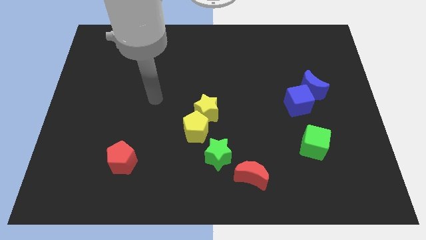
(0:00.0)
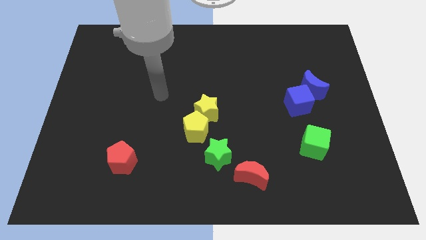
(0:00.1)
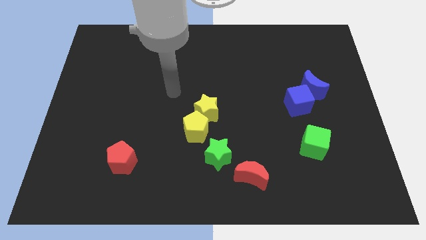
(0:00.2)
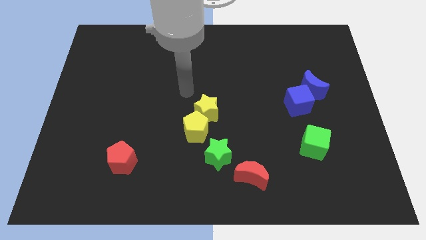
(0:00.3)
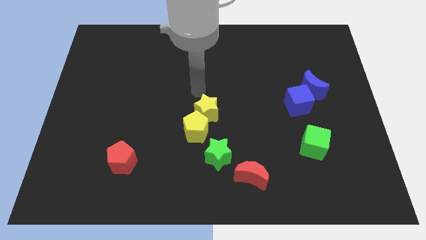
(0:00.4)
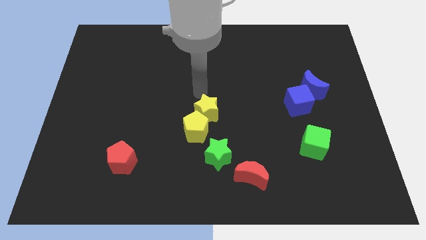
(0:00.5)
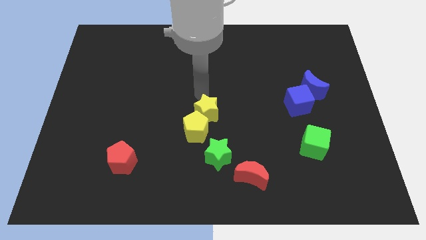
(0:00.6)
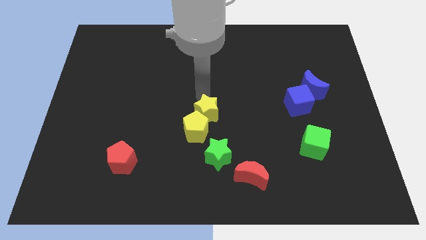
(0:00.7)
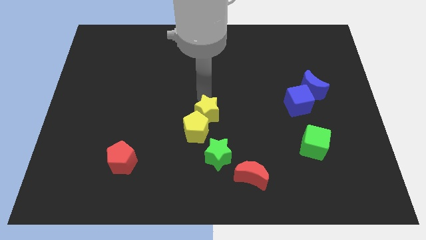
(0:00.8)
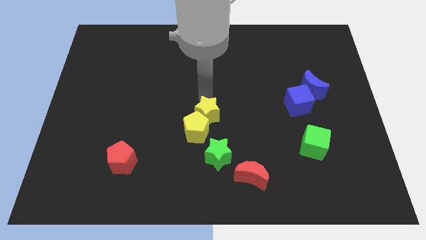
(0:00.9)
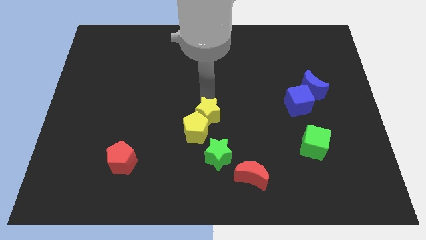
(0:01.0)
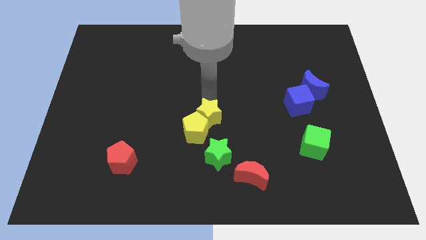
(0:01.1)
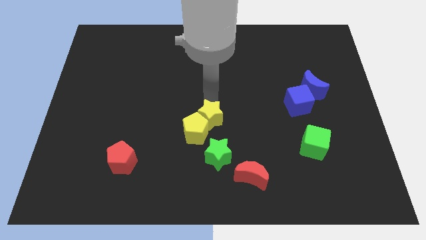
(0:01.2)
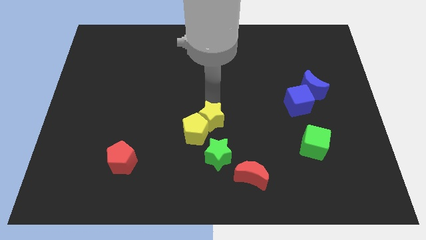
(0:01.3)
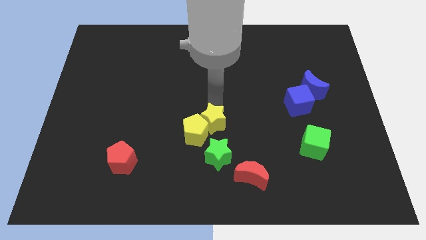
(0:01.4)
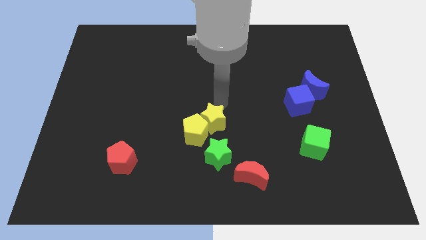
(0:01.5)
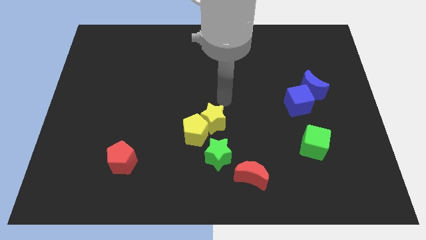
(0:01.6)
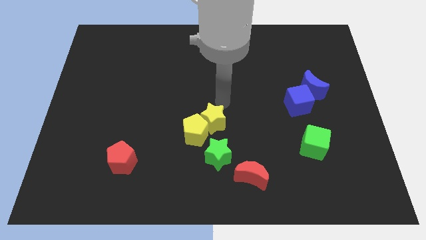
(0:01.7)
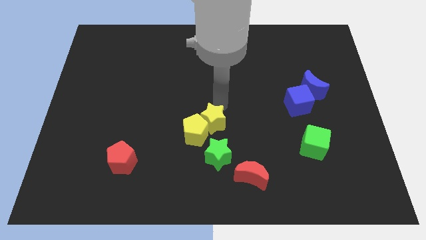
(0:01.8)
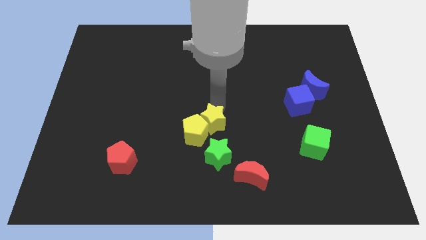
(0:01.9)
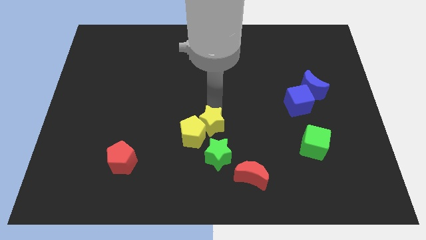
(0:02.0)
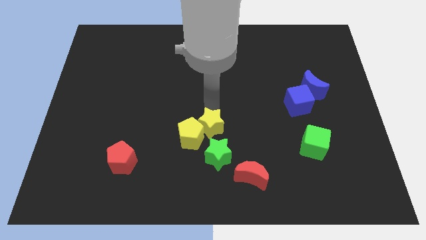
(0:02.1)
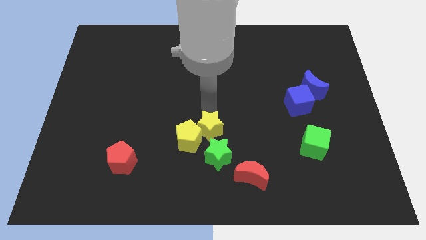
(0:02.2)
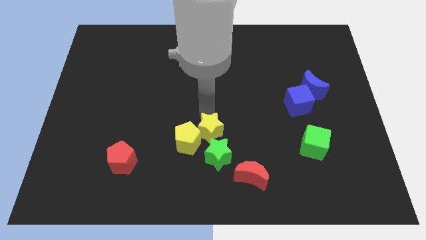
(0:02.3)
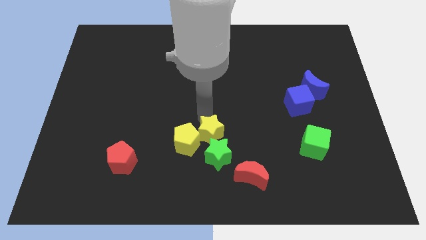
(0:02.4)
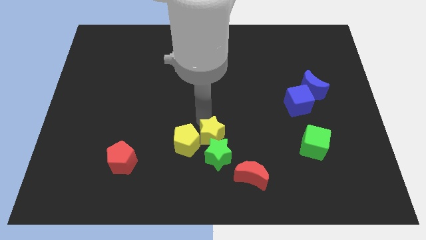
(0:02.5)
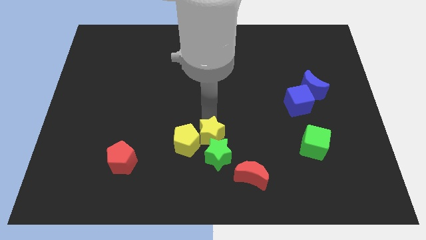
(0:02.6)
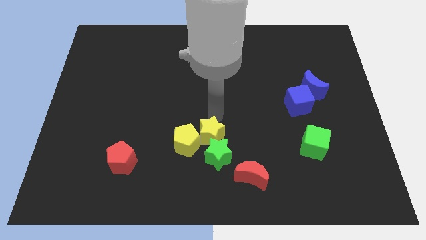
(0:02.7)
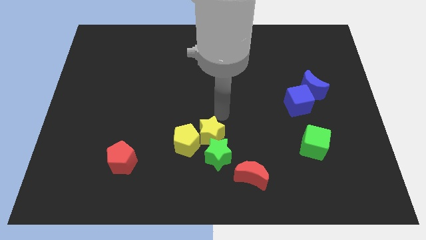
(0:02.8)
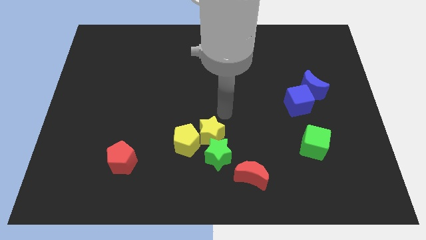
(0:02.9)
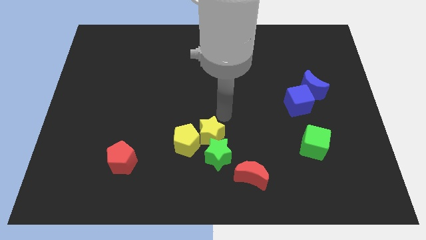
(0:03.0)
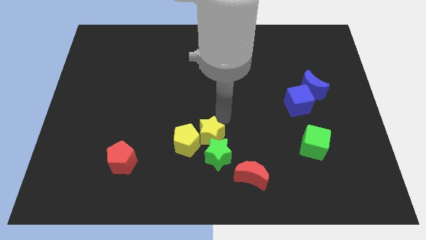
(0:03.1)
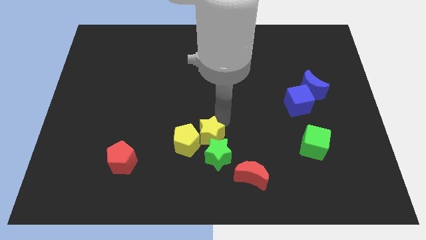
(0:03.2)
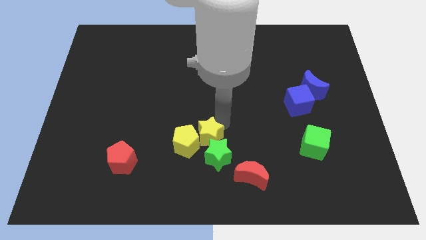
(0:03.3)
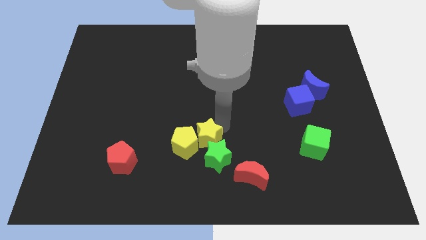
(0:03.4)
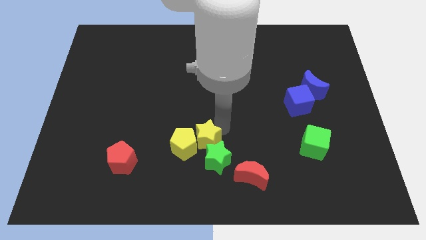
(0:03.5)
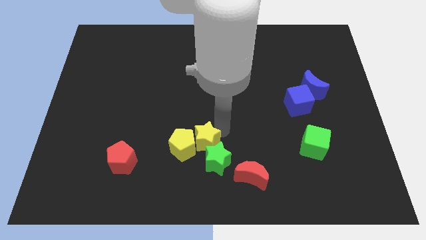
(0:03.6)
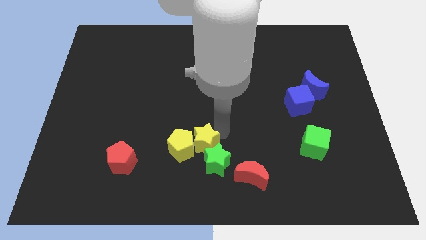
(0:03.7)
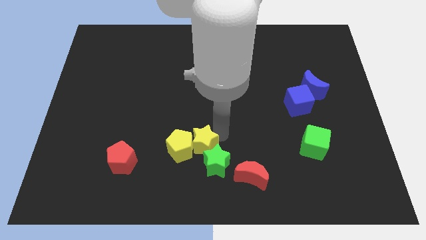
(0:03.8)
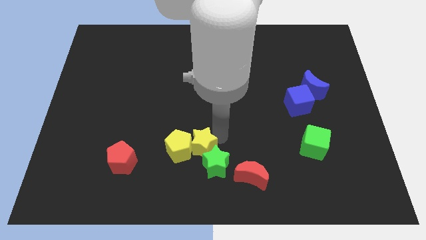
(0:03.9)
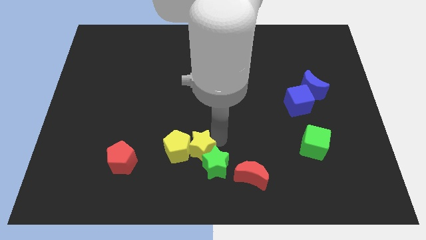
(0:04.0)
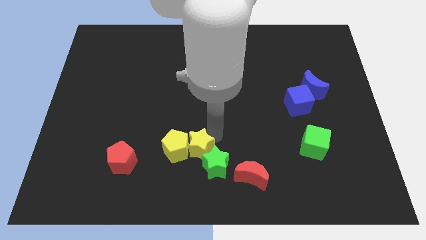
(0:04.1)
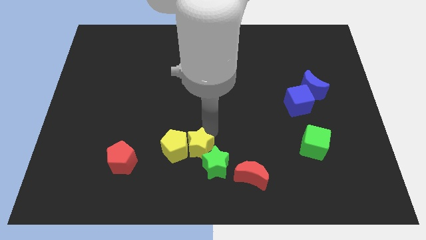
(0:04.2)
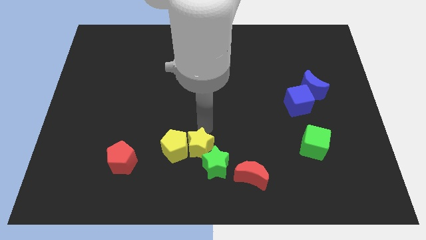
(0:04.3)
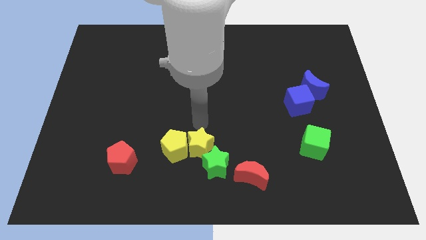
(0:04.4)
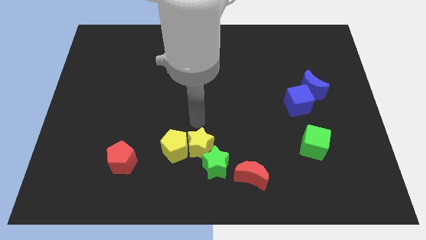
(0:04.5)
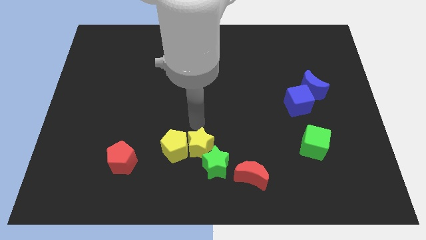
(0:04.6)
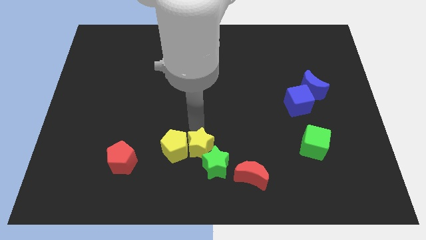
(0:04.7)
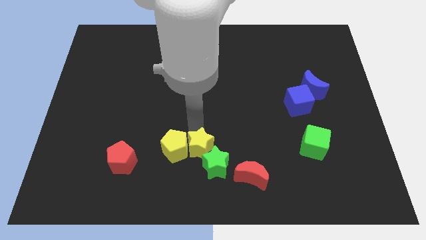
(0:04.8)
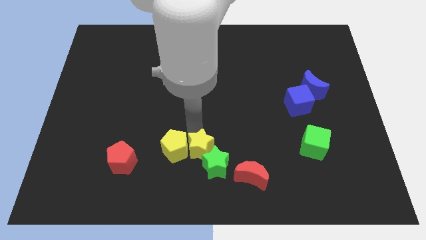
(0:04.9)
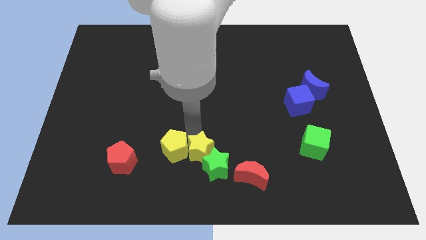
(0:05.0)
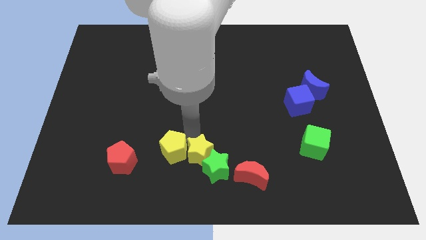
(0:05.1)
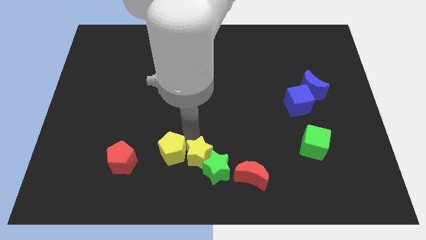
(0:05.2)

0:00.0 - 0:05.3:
move the yellow star to the bottom

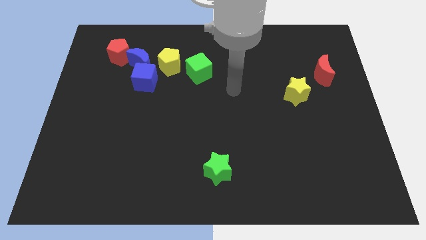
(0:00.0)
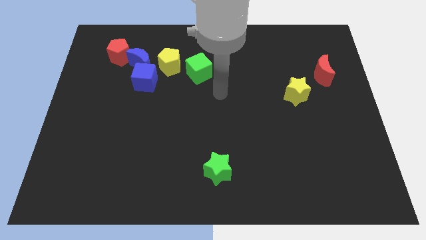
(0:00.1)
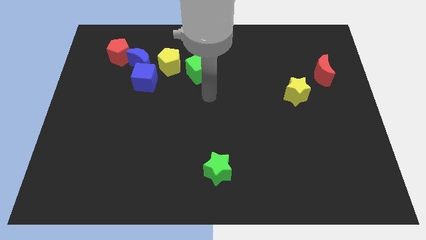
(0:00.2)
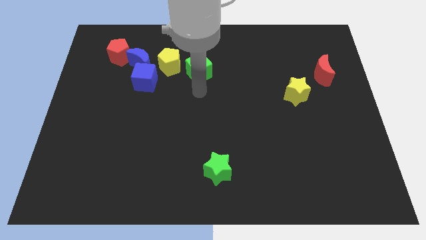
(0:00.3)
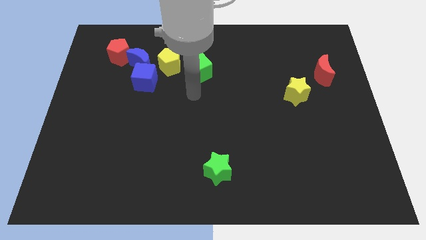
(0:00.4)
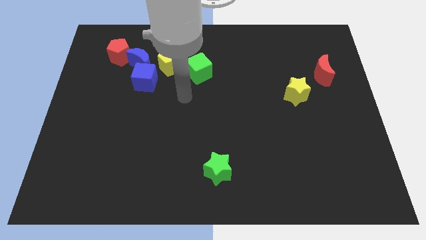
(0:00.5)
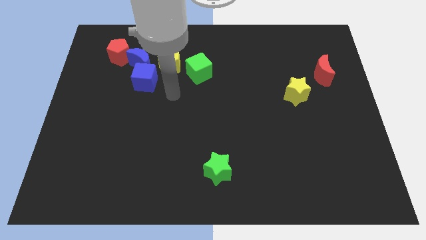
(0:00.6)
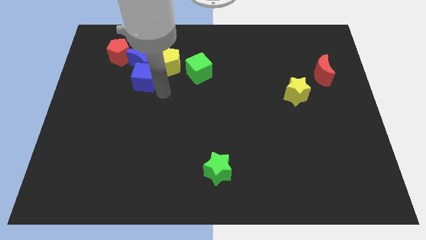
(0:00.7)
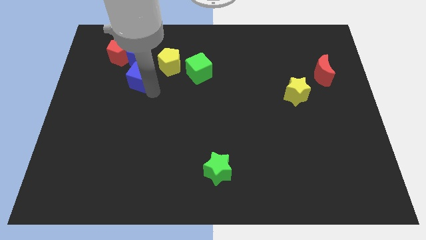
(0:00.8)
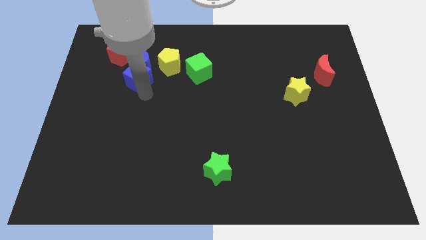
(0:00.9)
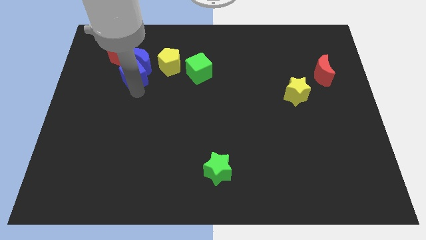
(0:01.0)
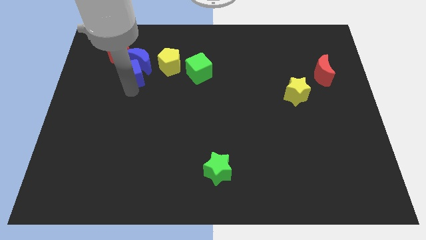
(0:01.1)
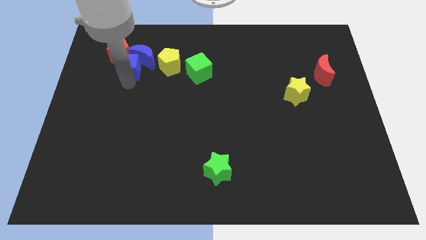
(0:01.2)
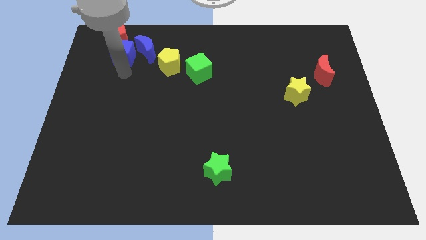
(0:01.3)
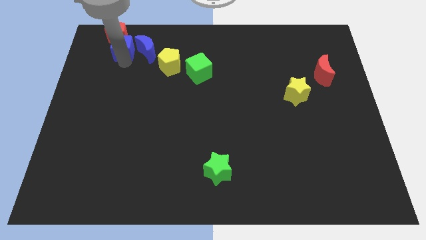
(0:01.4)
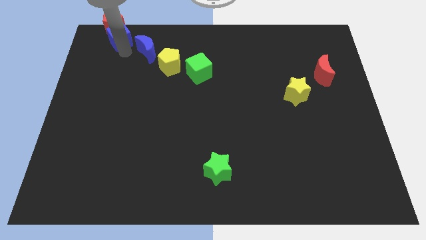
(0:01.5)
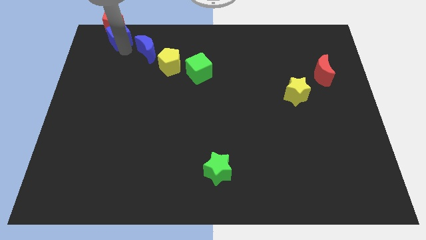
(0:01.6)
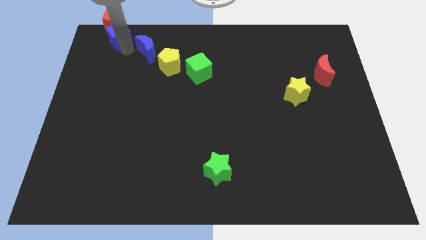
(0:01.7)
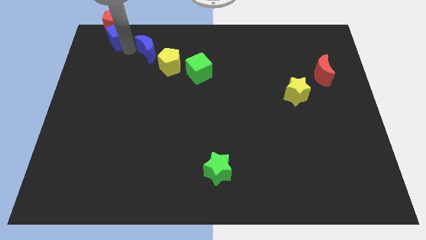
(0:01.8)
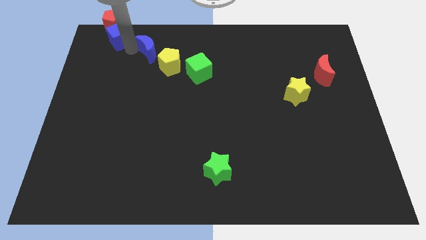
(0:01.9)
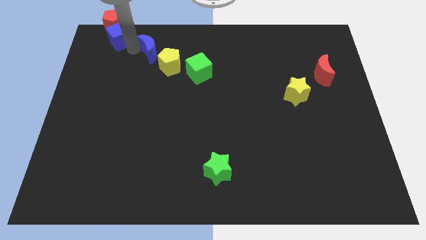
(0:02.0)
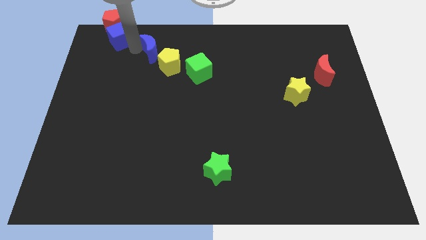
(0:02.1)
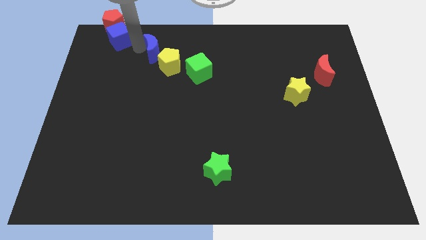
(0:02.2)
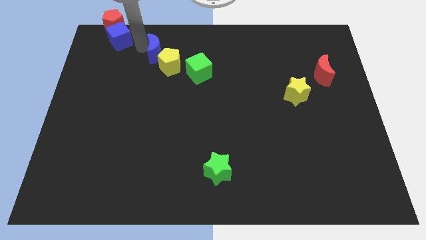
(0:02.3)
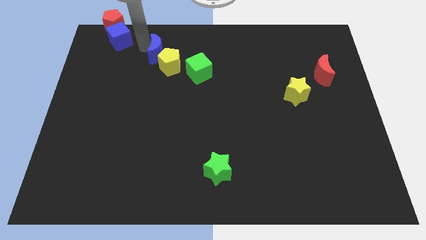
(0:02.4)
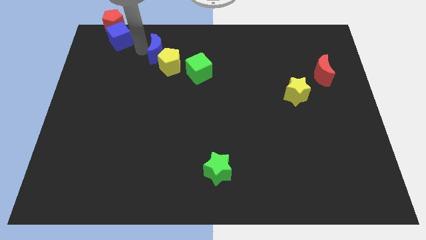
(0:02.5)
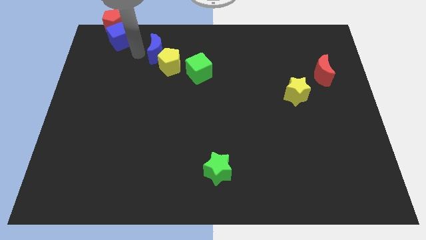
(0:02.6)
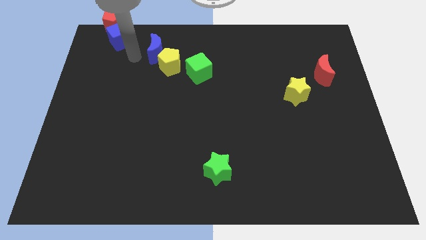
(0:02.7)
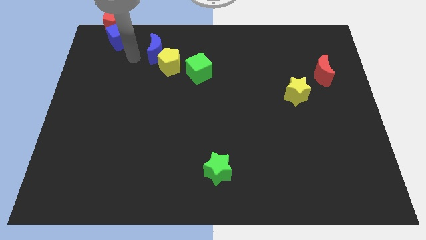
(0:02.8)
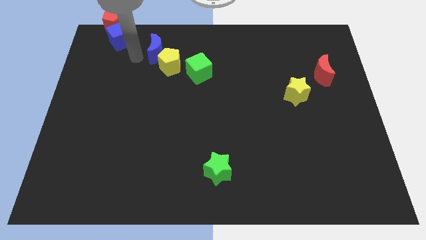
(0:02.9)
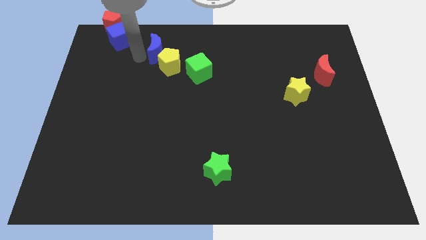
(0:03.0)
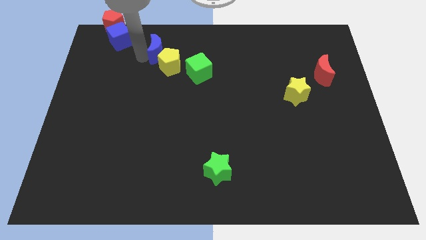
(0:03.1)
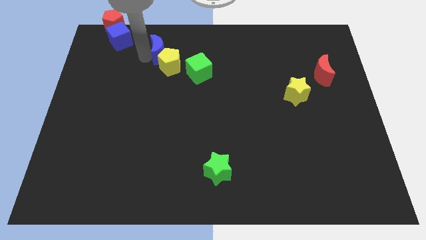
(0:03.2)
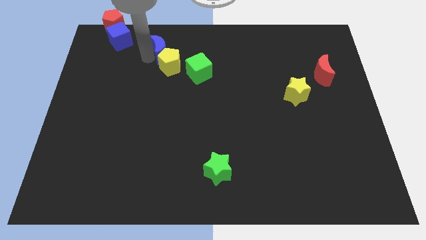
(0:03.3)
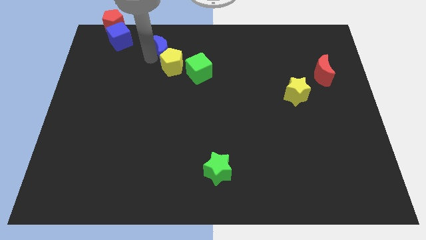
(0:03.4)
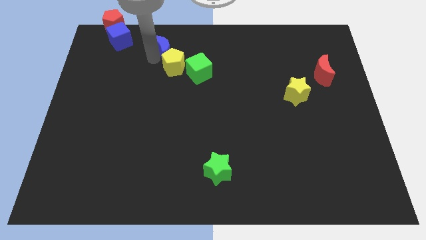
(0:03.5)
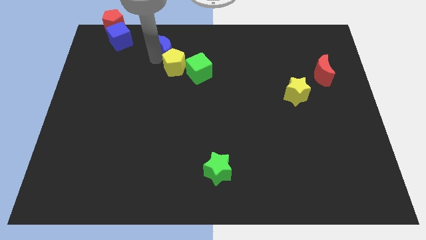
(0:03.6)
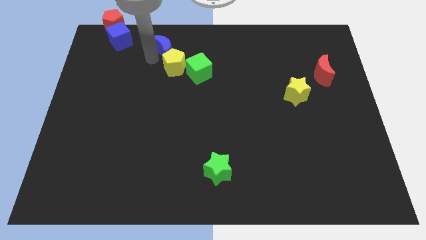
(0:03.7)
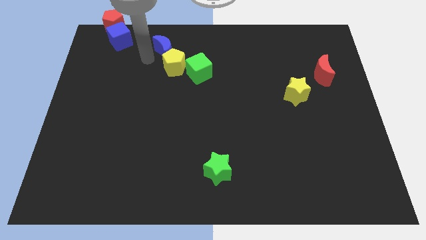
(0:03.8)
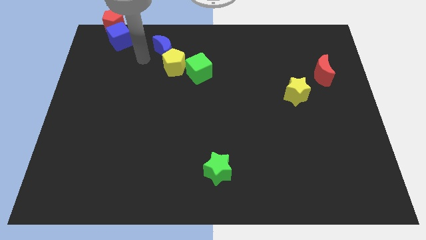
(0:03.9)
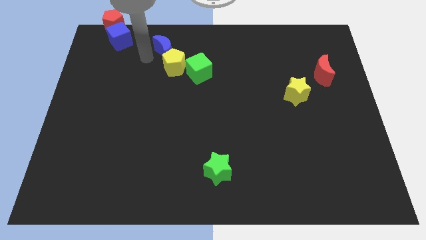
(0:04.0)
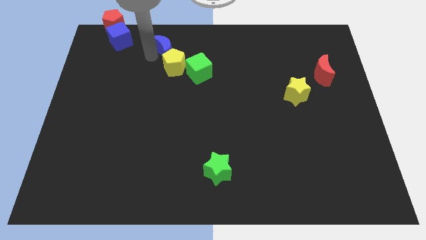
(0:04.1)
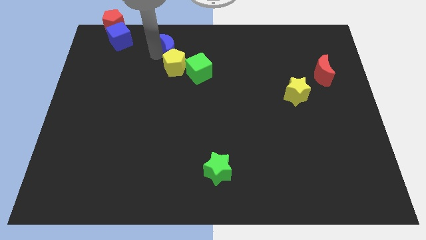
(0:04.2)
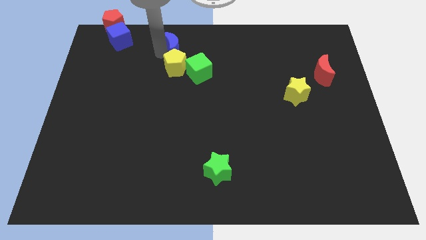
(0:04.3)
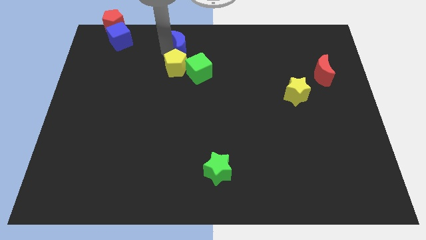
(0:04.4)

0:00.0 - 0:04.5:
put the blue moon to the top side
